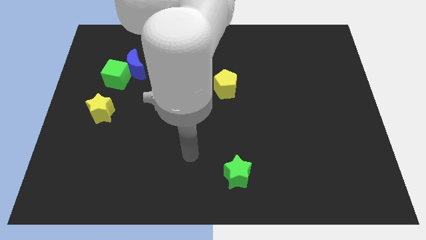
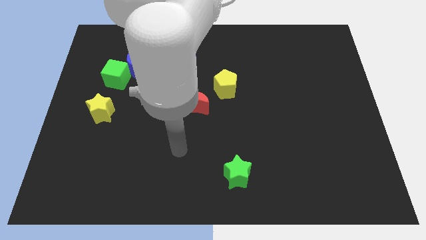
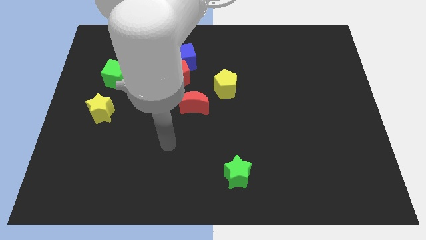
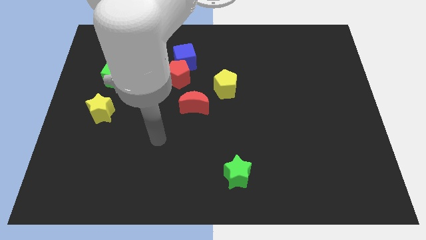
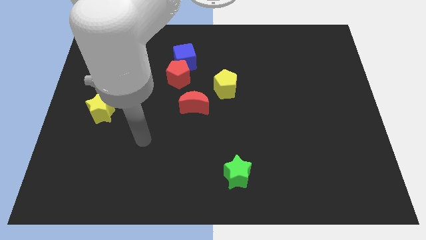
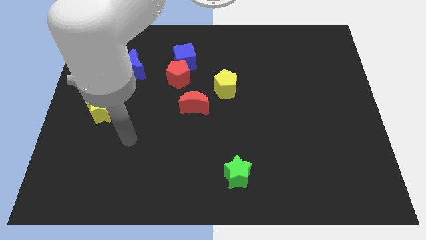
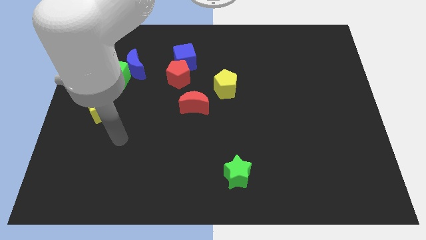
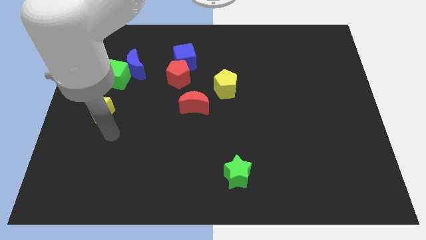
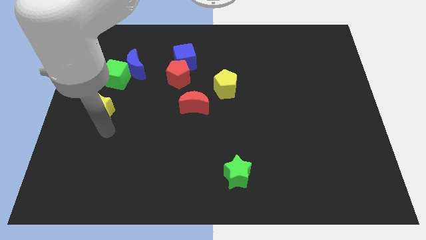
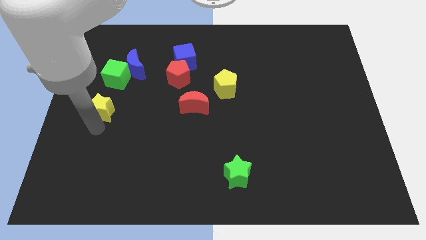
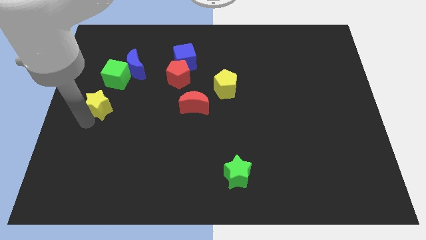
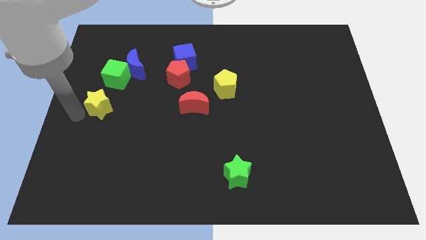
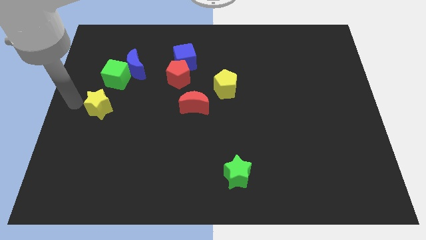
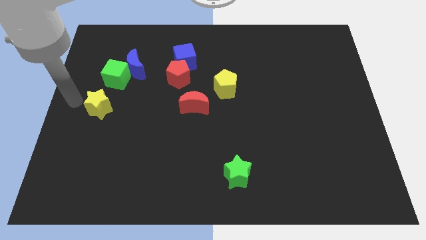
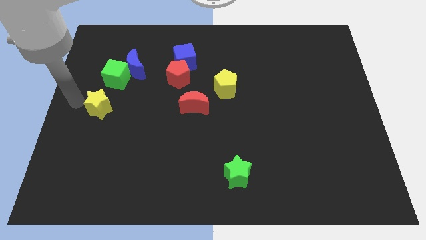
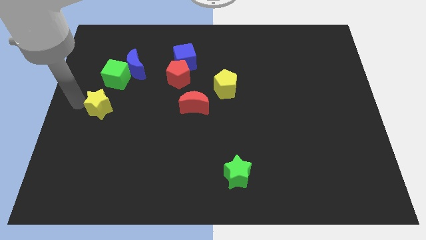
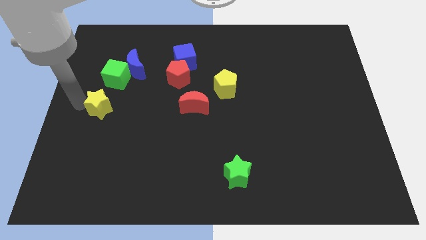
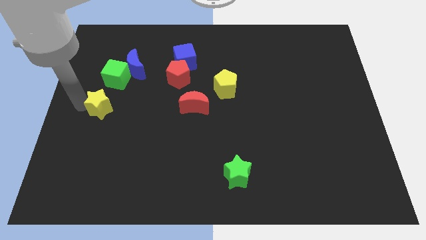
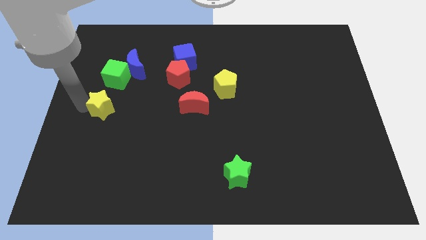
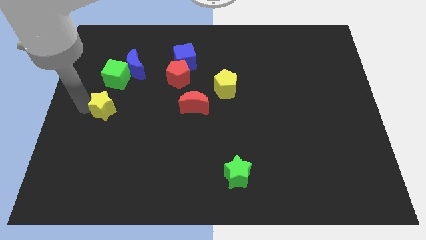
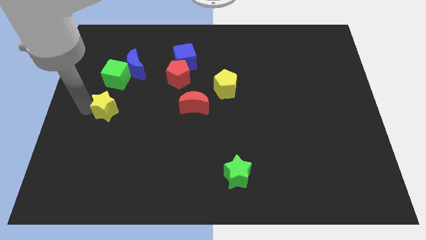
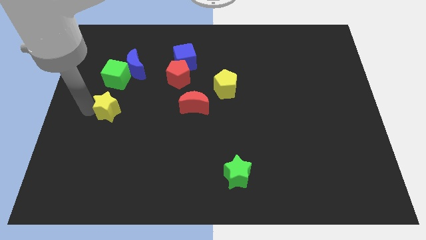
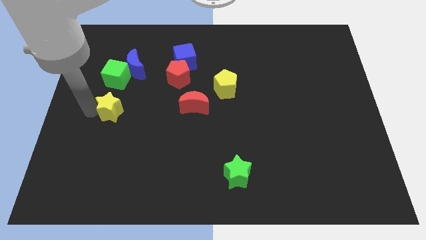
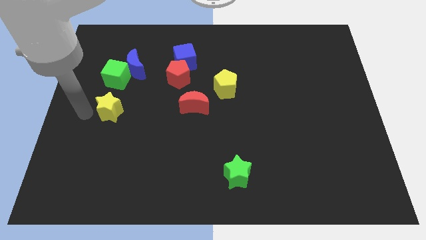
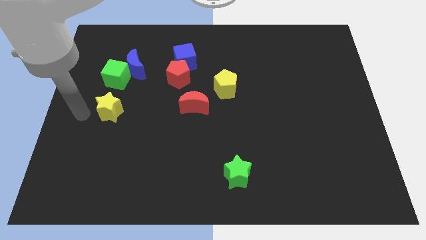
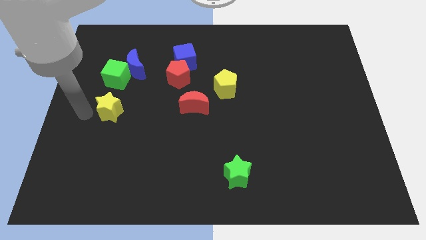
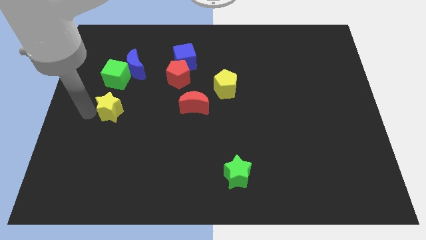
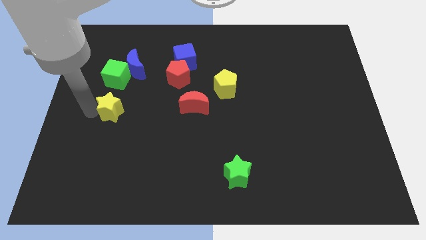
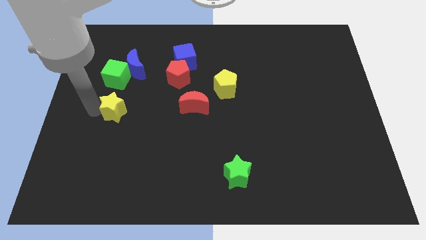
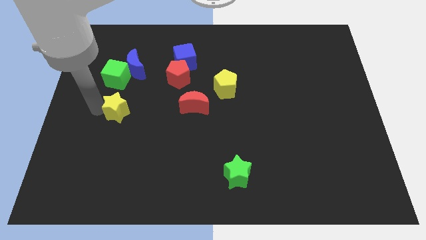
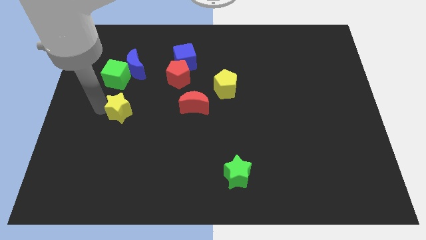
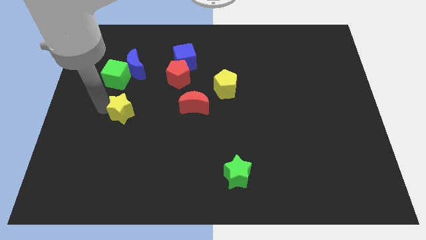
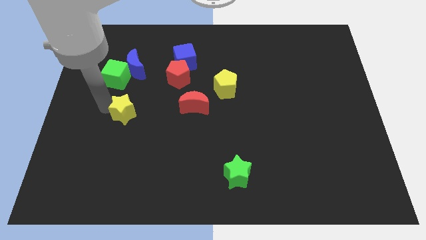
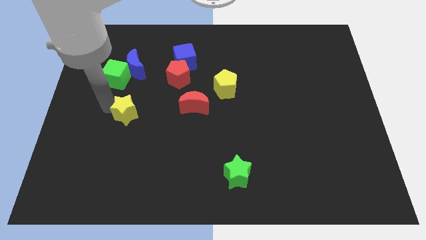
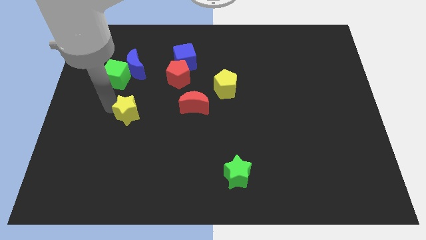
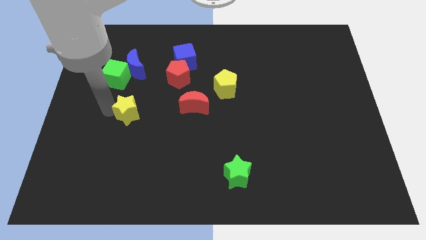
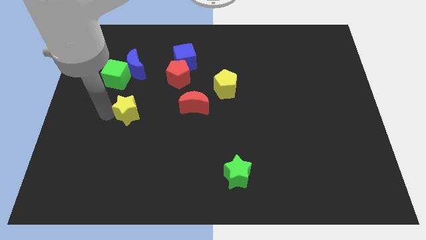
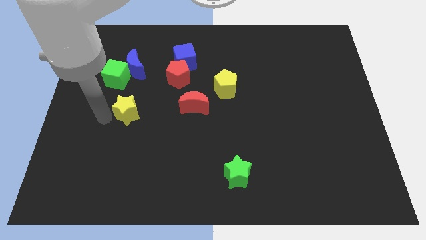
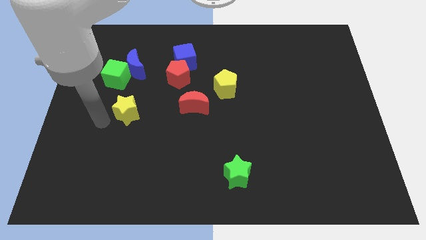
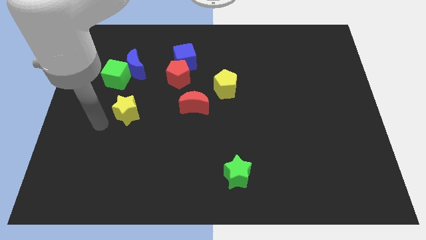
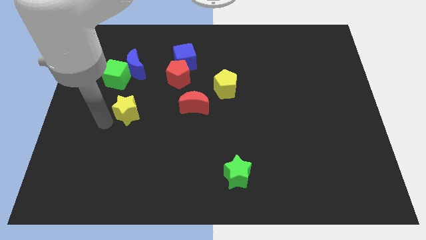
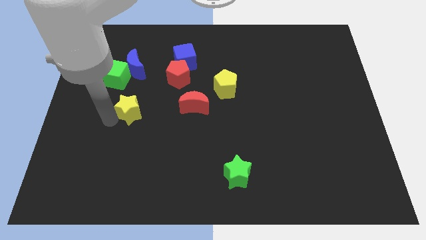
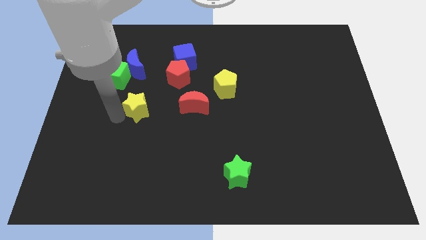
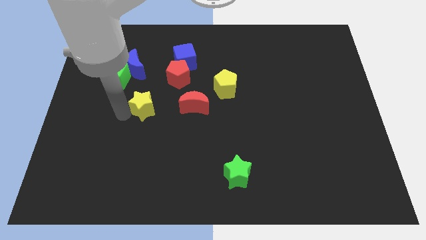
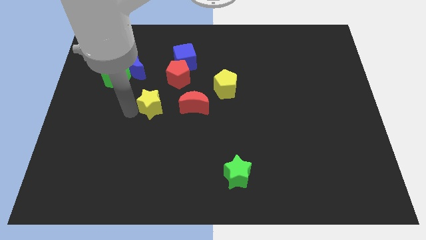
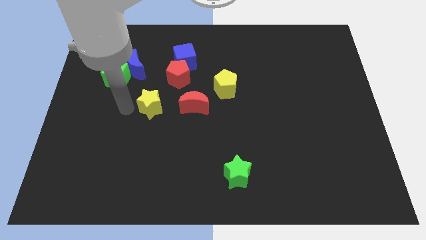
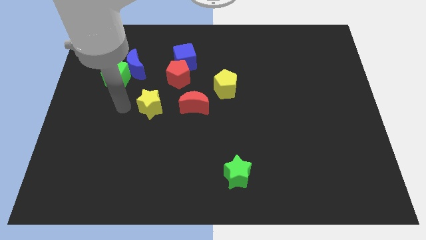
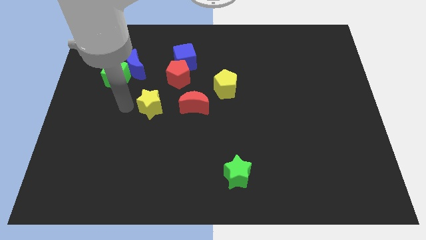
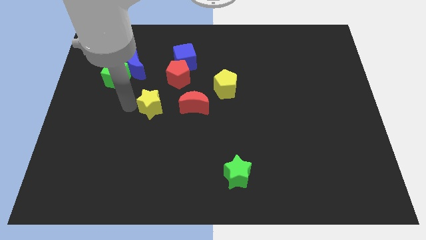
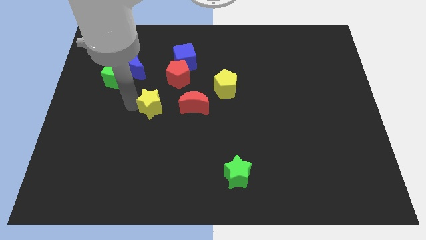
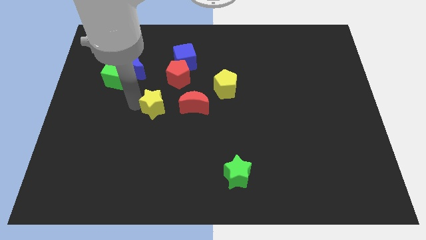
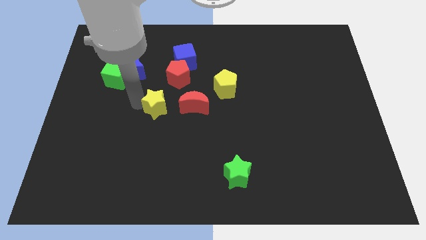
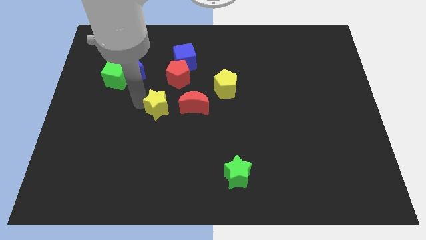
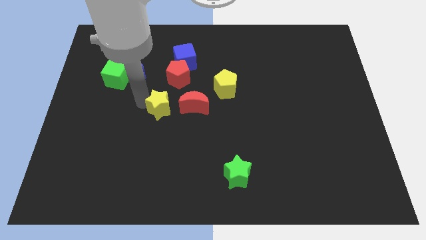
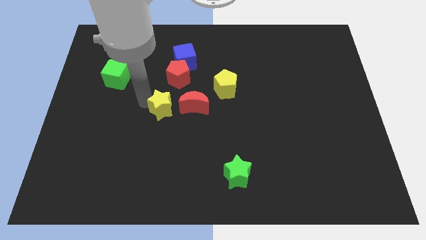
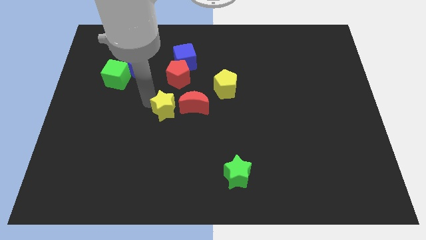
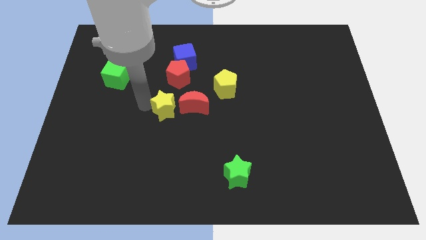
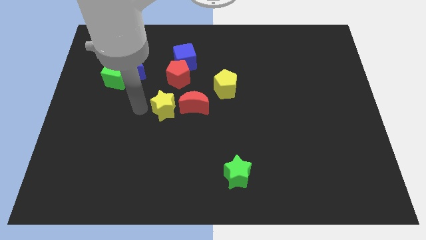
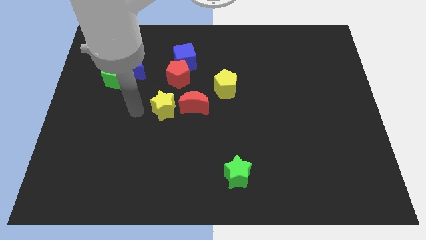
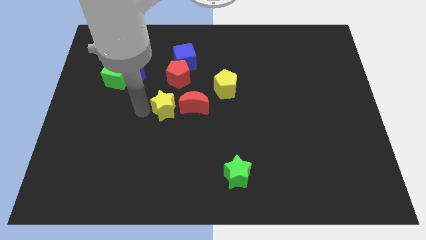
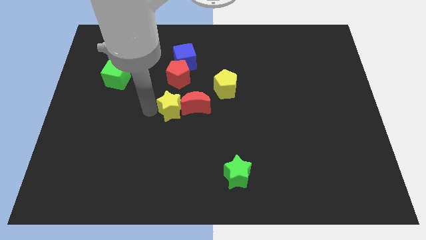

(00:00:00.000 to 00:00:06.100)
push the yellow star close to the red moon

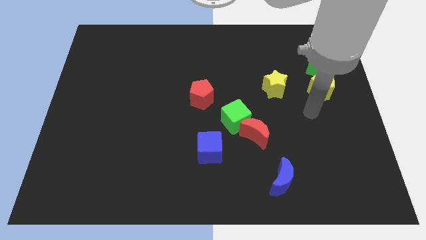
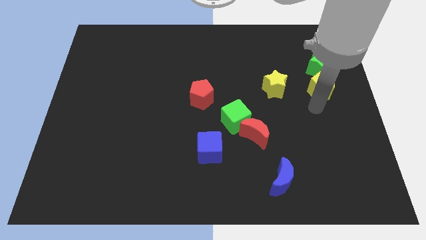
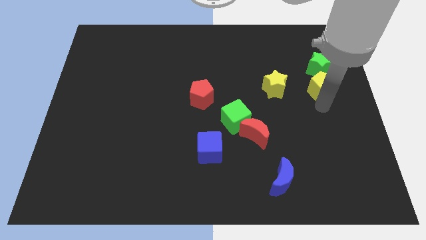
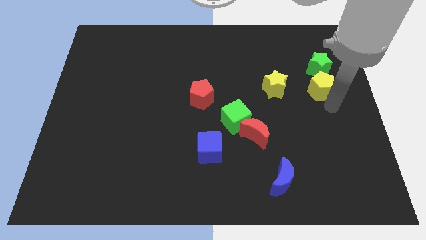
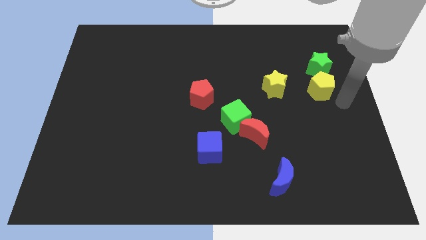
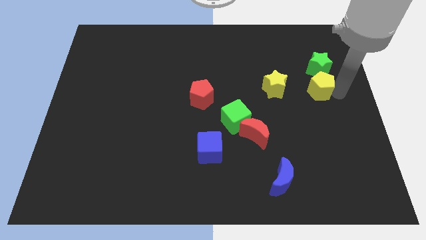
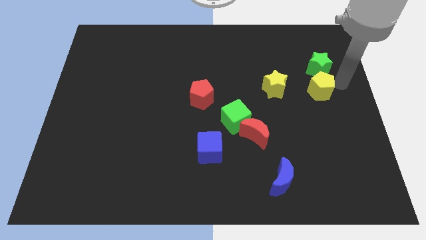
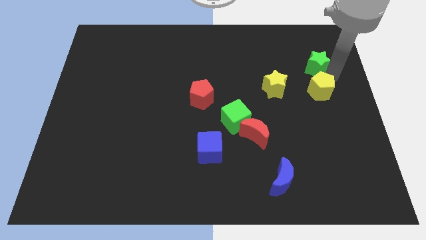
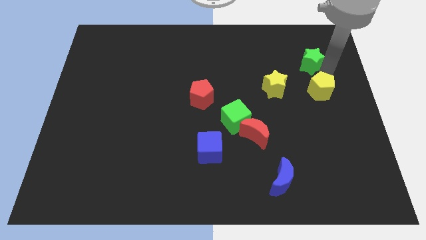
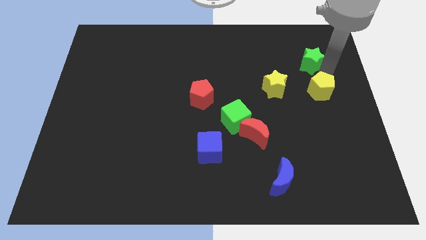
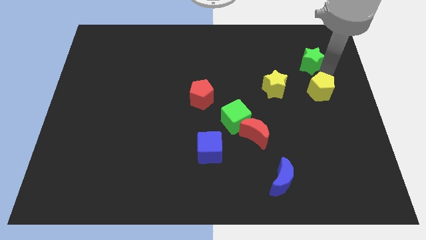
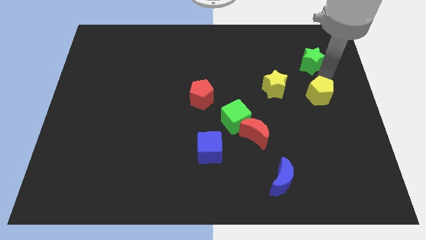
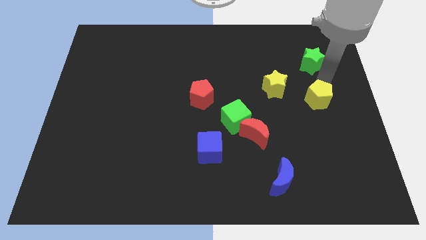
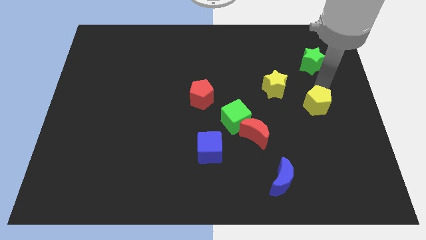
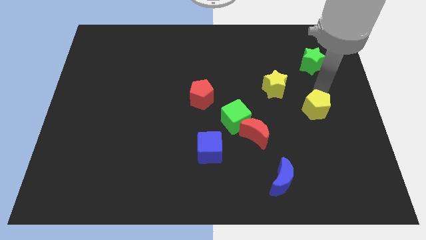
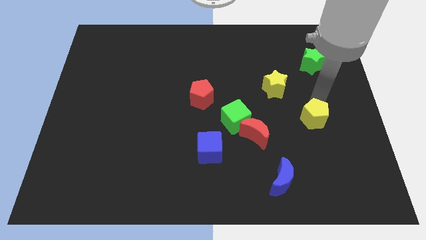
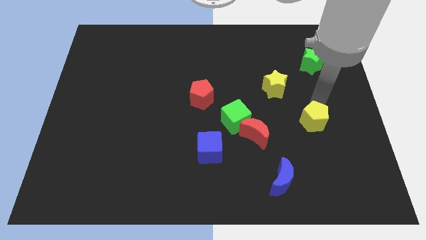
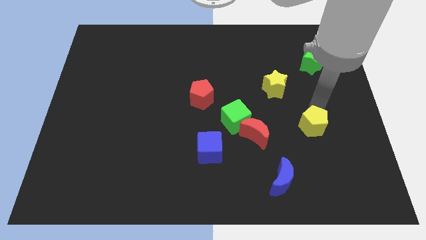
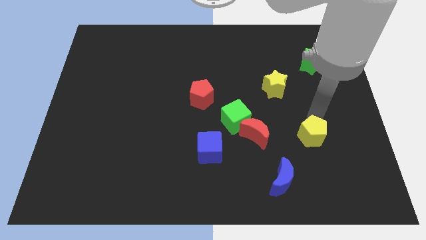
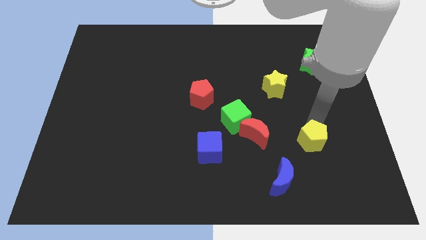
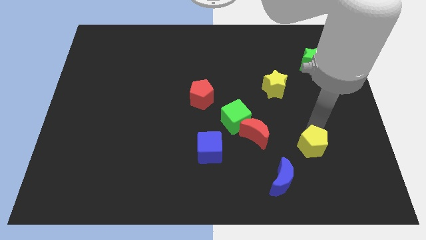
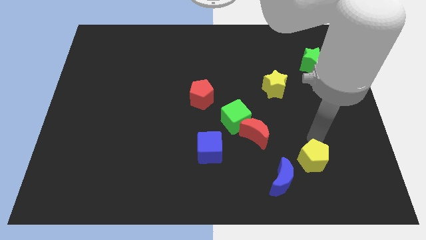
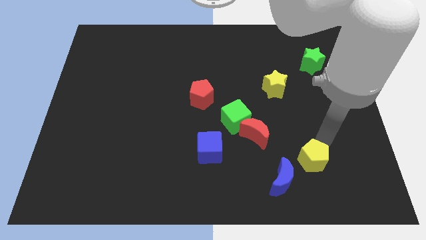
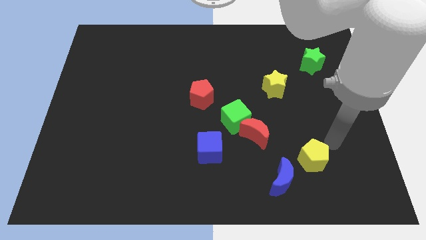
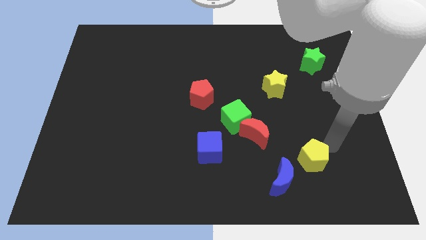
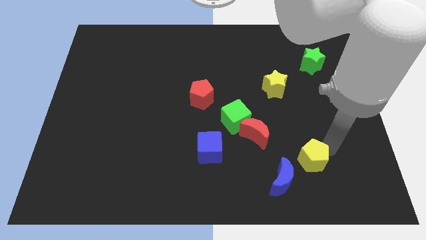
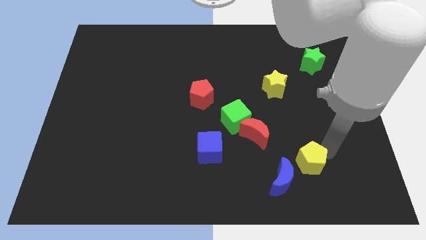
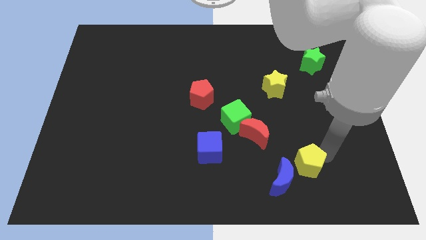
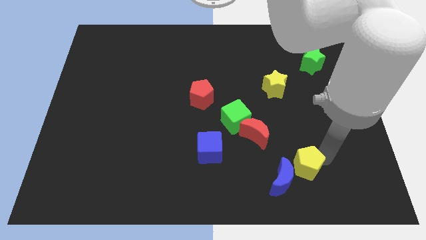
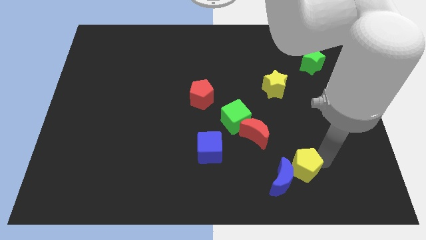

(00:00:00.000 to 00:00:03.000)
move the yellow pentagon to the blue moon
